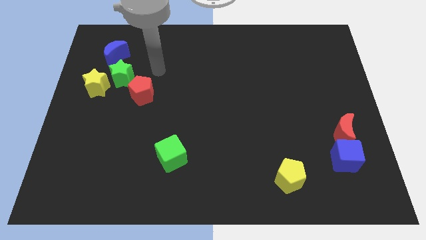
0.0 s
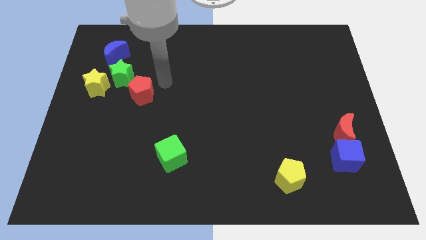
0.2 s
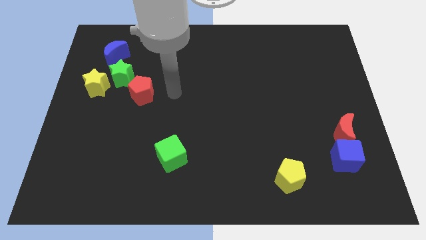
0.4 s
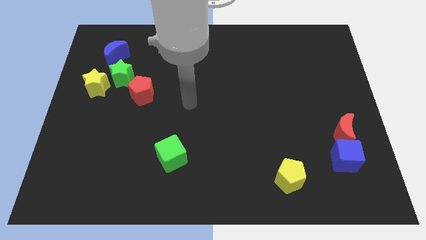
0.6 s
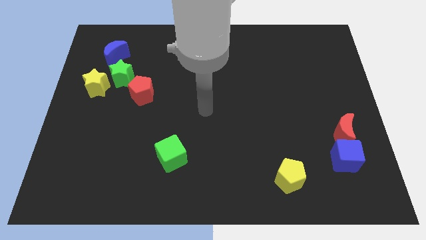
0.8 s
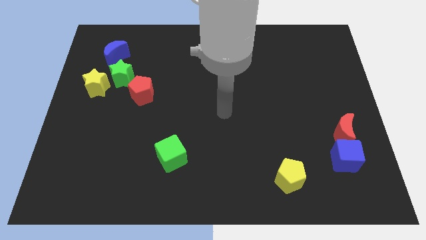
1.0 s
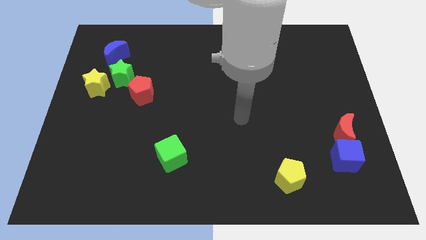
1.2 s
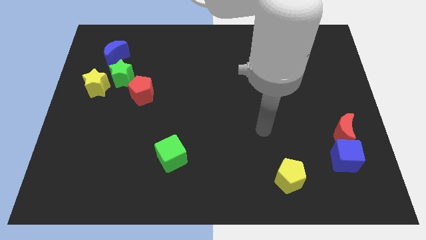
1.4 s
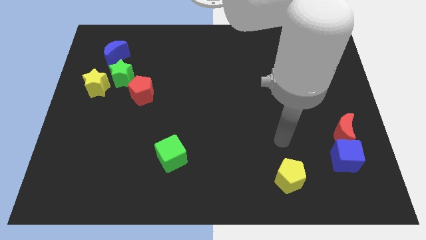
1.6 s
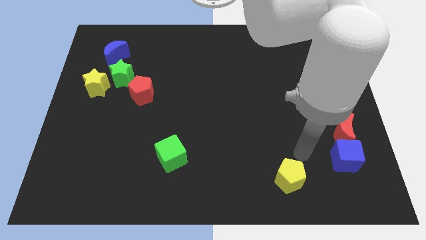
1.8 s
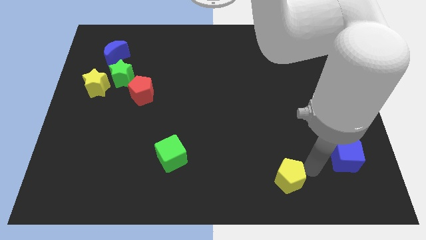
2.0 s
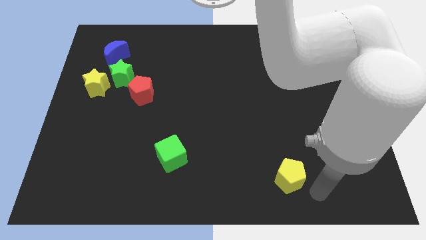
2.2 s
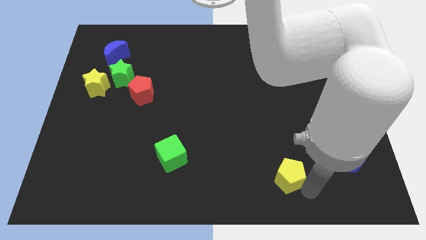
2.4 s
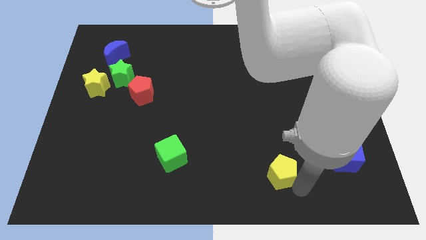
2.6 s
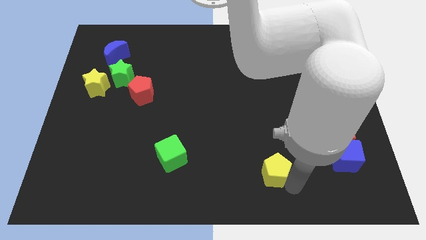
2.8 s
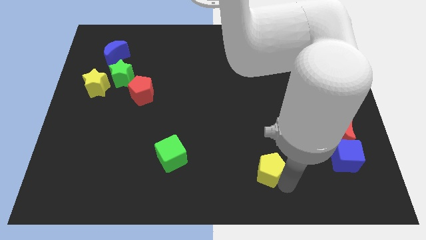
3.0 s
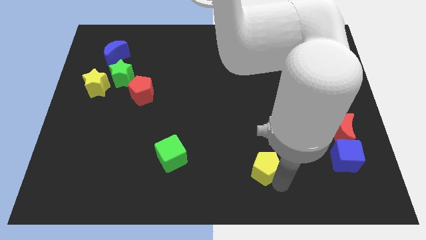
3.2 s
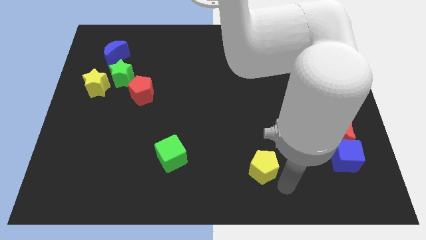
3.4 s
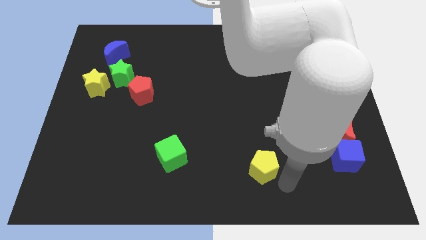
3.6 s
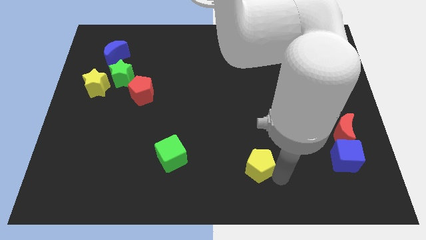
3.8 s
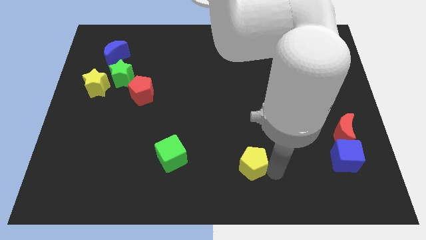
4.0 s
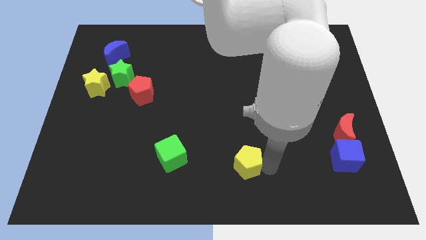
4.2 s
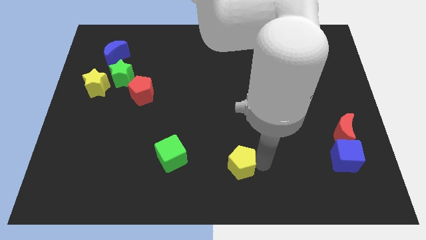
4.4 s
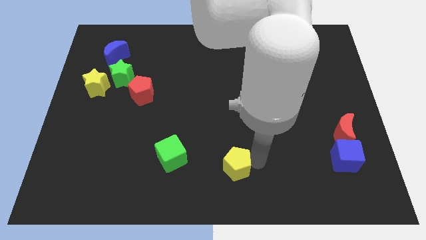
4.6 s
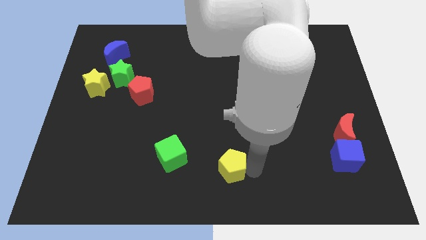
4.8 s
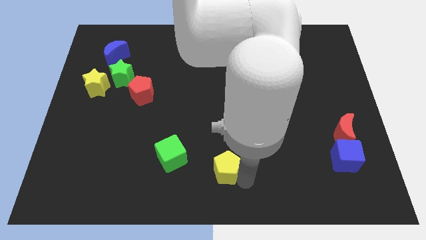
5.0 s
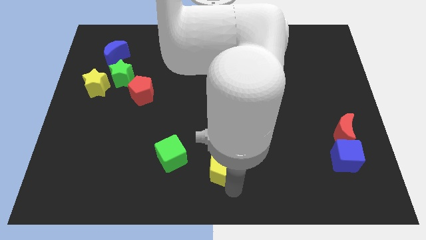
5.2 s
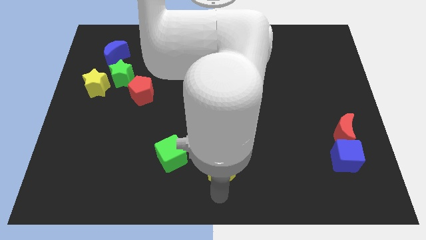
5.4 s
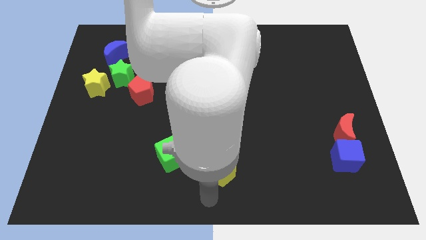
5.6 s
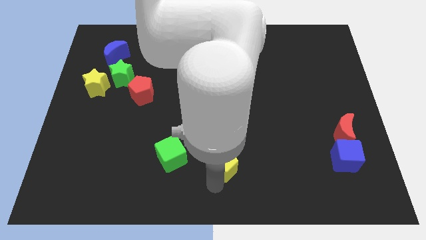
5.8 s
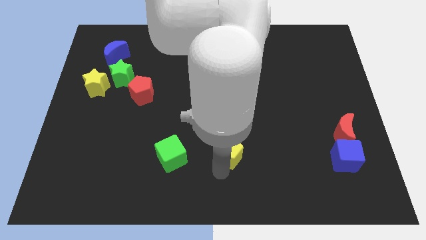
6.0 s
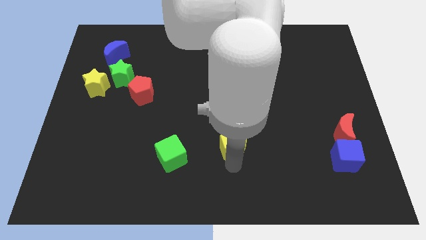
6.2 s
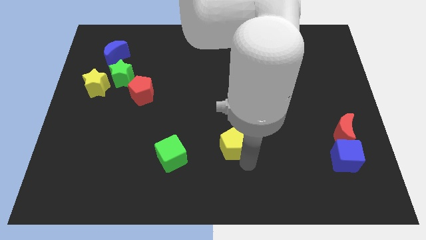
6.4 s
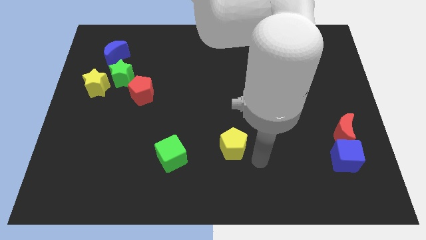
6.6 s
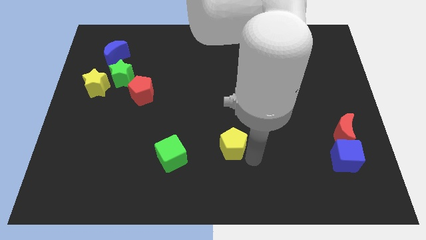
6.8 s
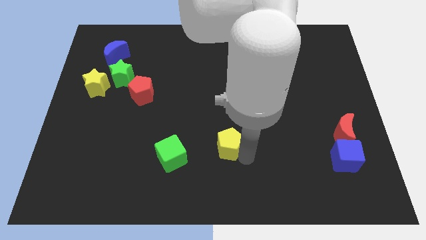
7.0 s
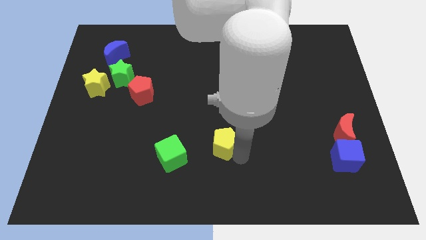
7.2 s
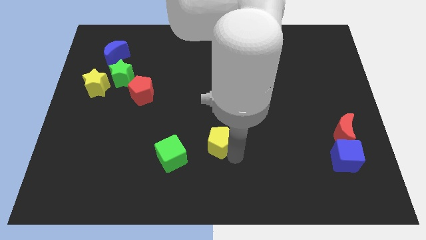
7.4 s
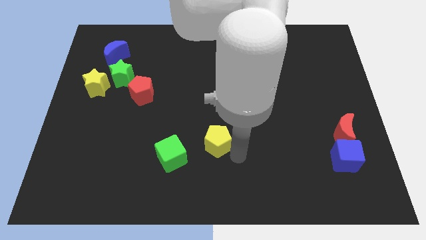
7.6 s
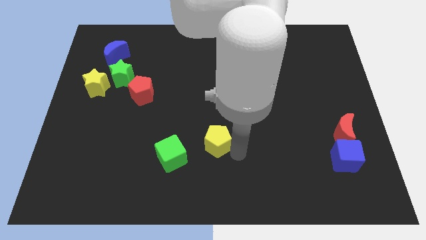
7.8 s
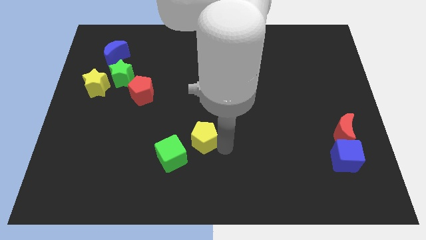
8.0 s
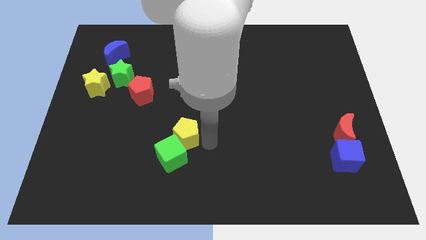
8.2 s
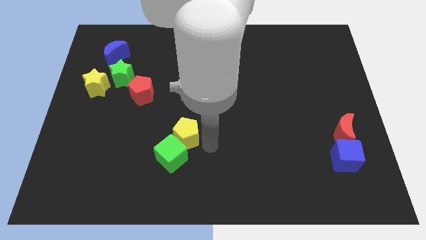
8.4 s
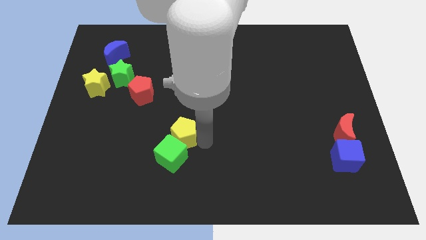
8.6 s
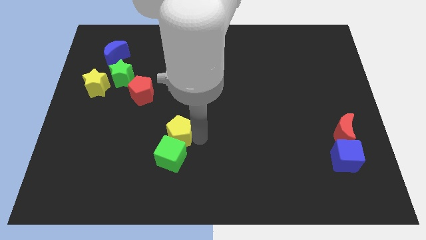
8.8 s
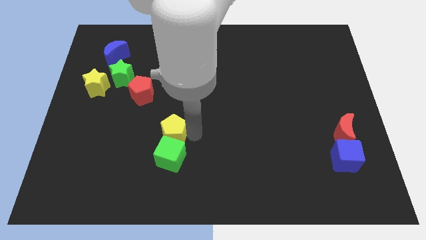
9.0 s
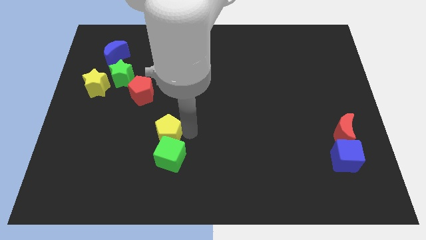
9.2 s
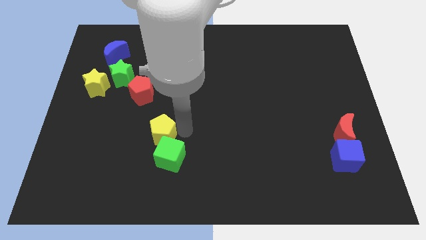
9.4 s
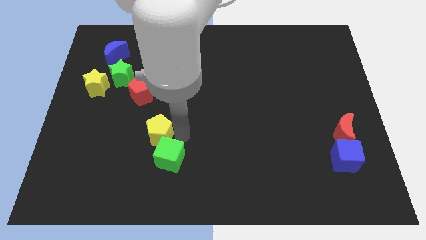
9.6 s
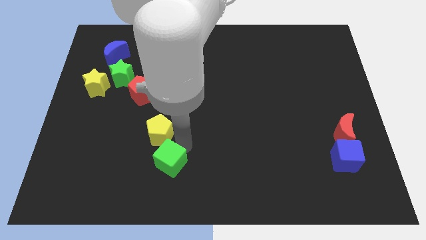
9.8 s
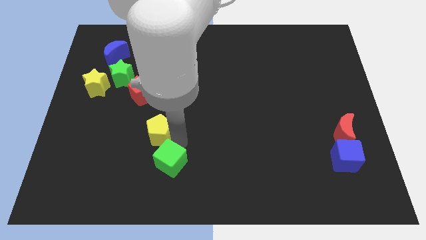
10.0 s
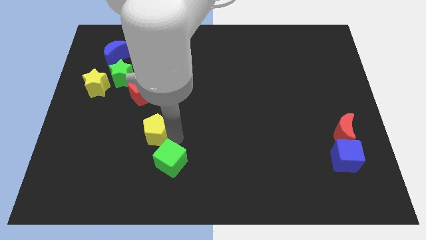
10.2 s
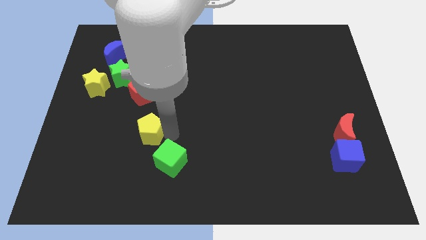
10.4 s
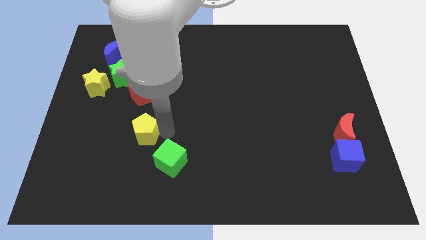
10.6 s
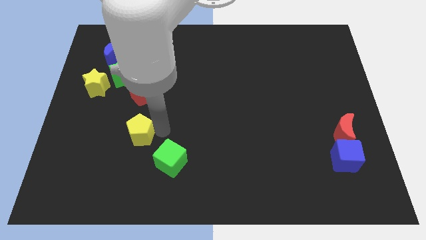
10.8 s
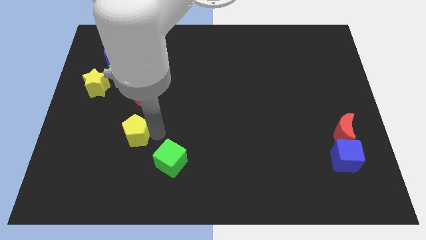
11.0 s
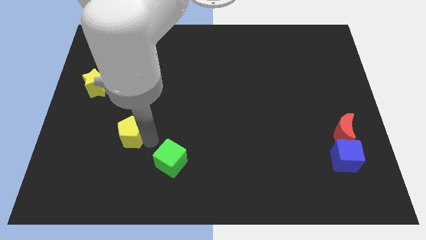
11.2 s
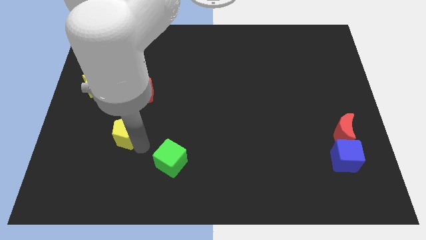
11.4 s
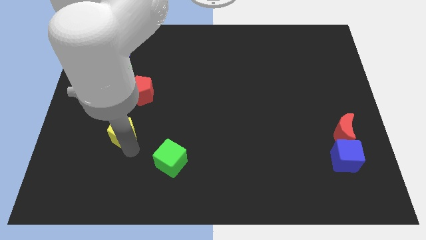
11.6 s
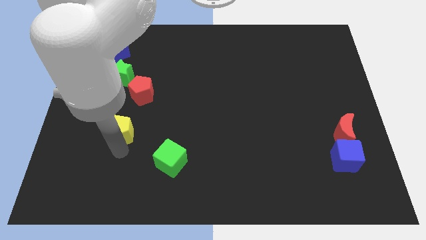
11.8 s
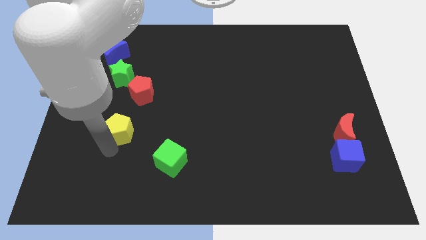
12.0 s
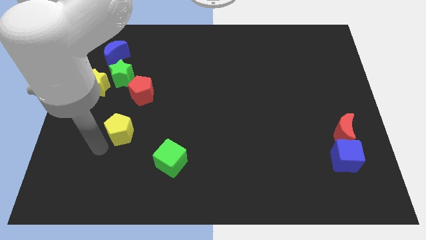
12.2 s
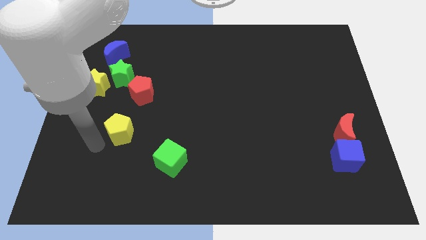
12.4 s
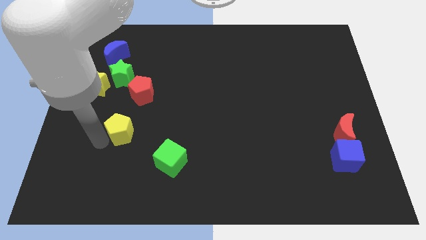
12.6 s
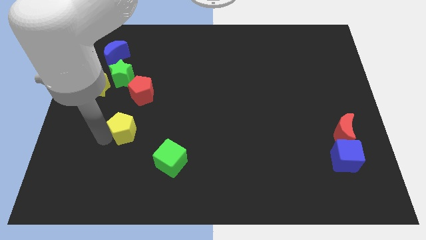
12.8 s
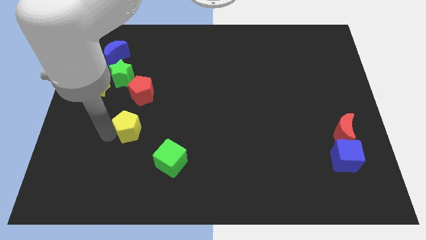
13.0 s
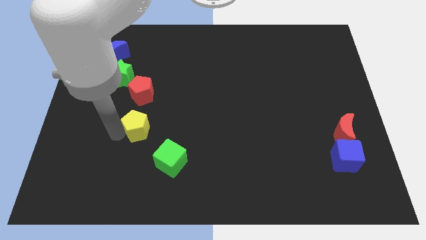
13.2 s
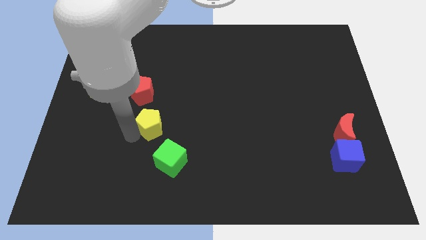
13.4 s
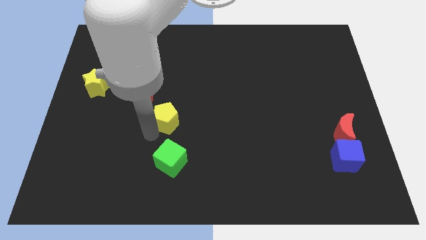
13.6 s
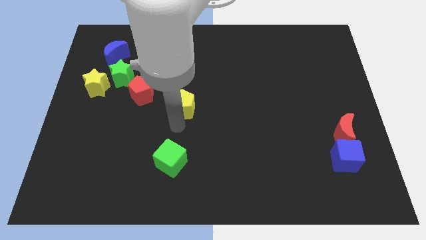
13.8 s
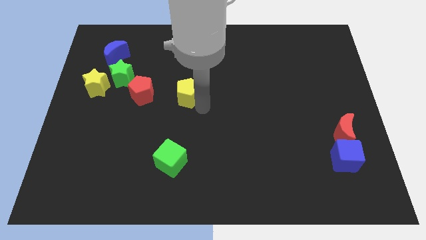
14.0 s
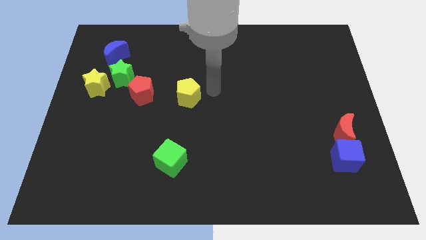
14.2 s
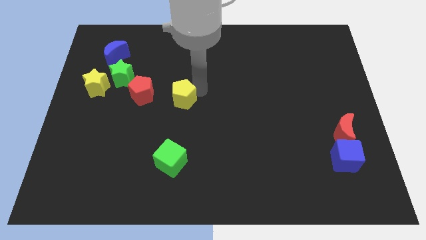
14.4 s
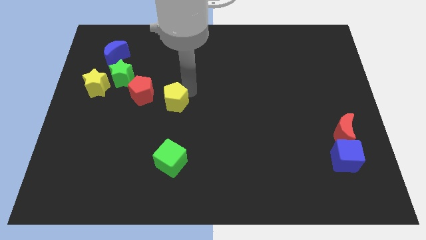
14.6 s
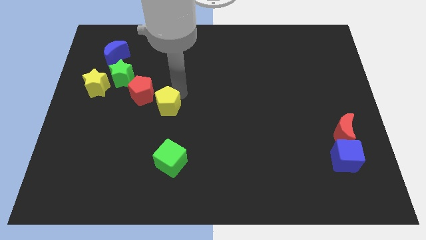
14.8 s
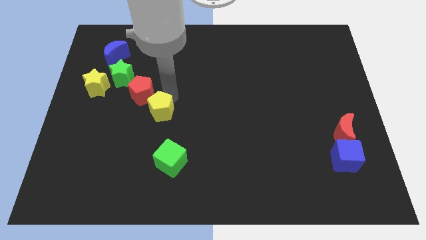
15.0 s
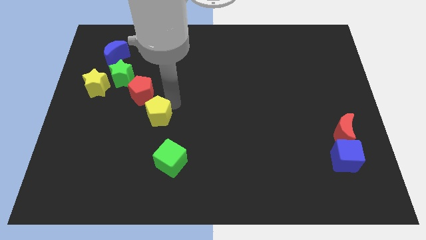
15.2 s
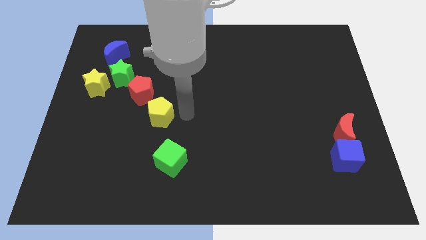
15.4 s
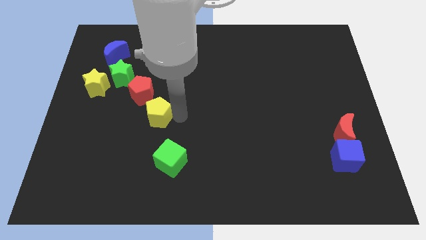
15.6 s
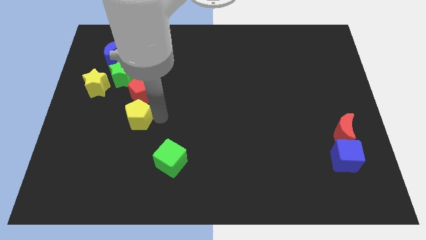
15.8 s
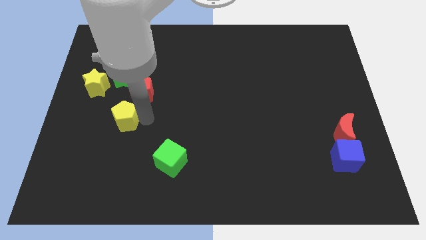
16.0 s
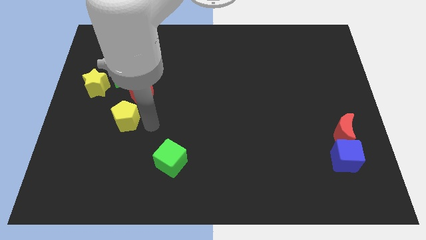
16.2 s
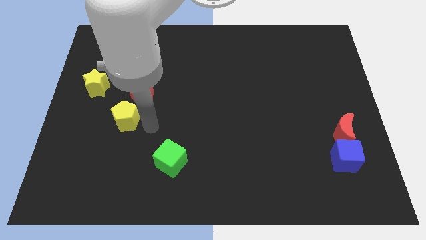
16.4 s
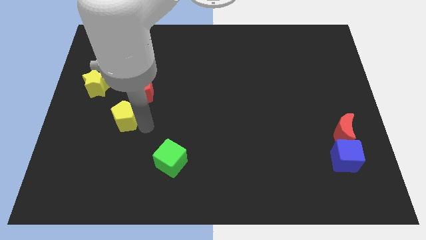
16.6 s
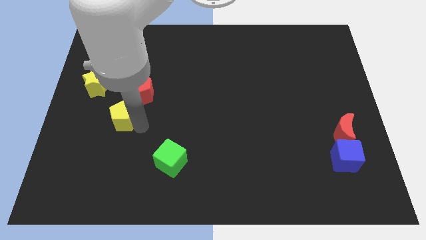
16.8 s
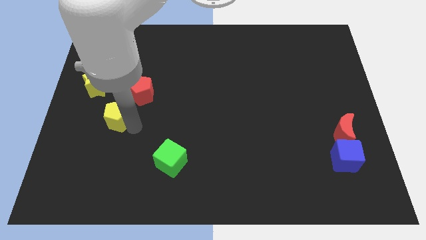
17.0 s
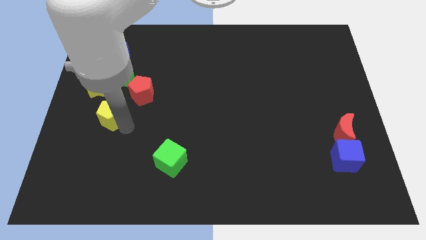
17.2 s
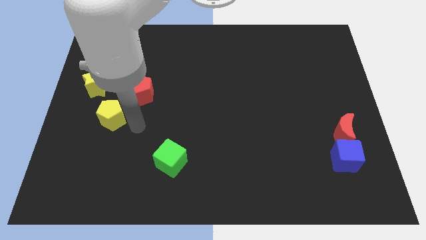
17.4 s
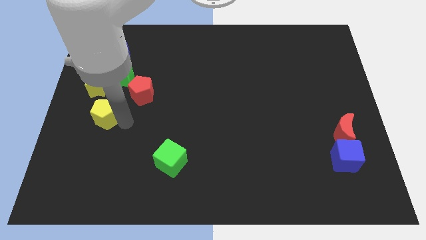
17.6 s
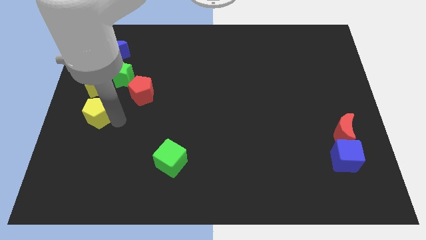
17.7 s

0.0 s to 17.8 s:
push the yellow pentagon to the center left
